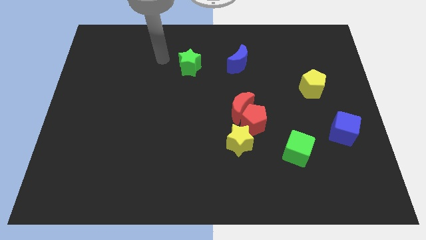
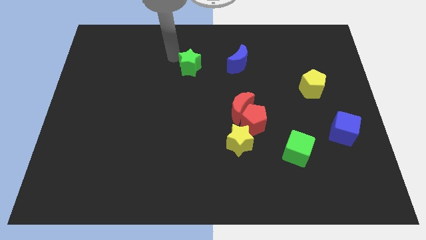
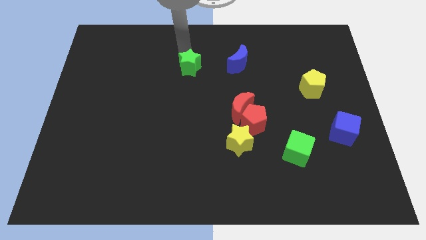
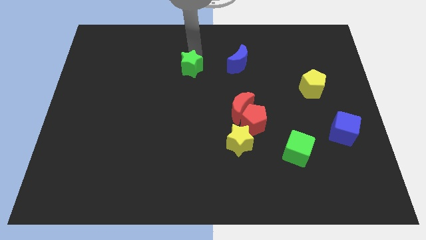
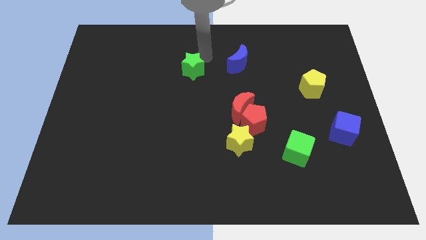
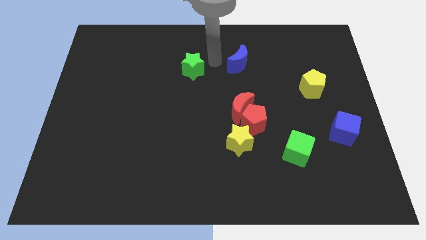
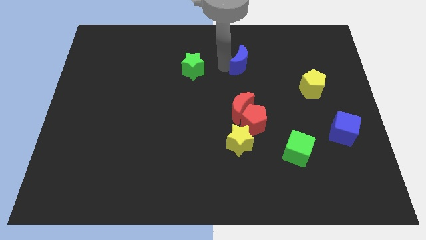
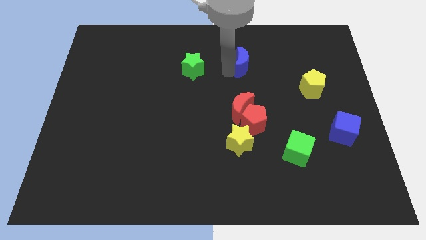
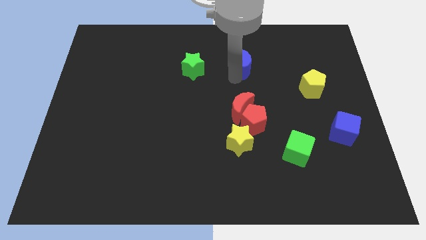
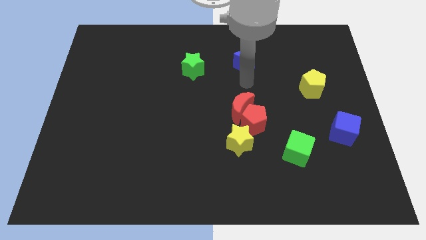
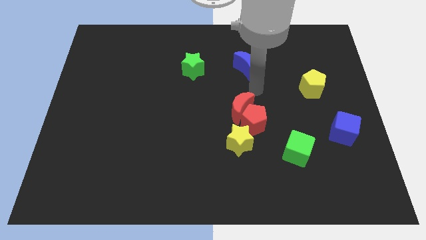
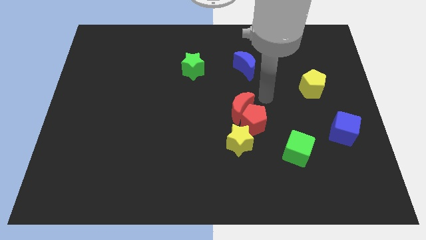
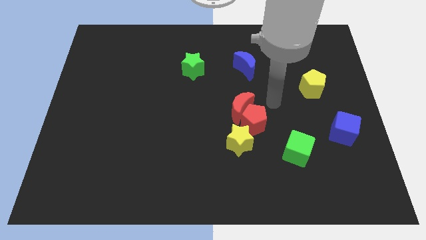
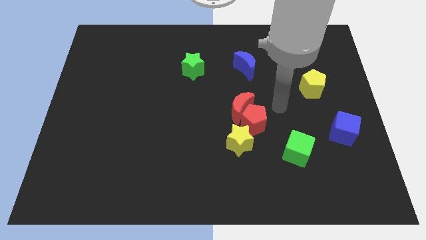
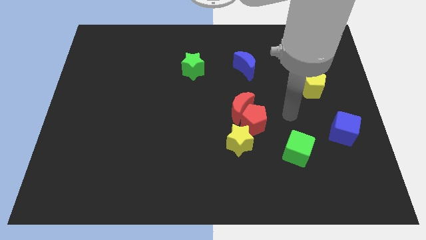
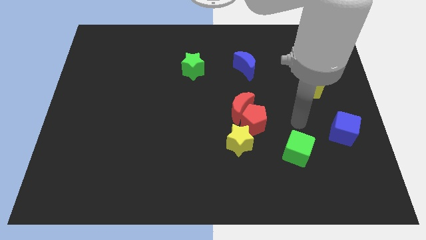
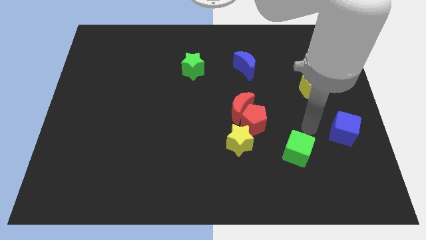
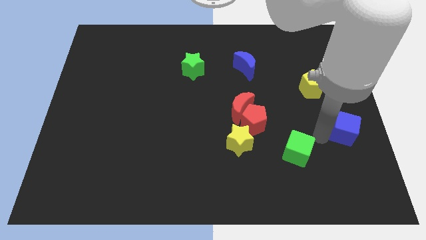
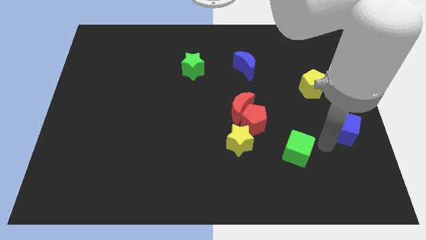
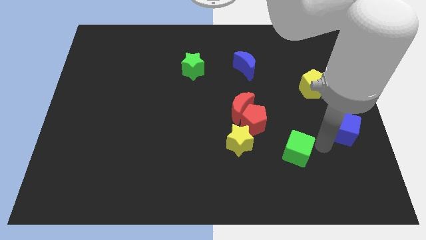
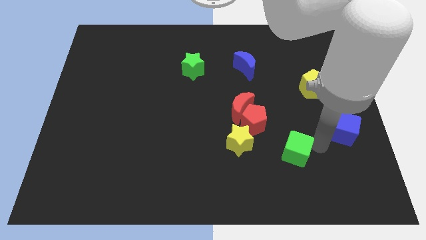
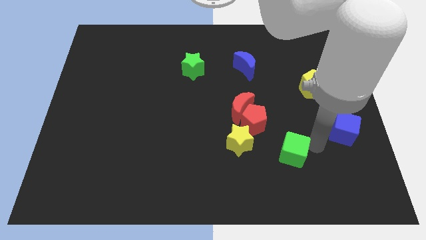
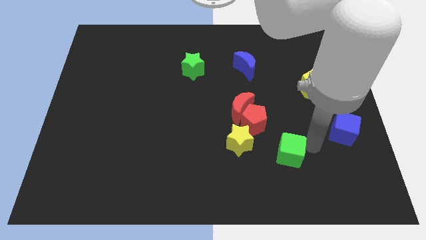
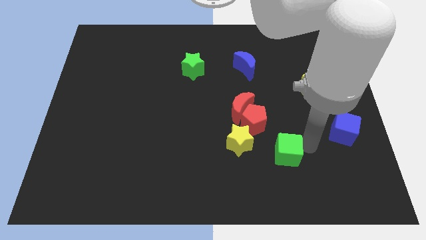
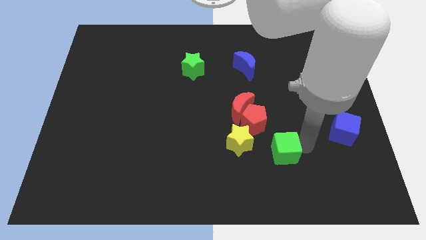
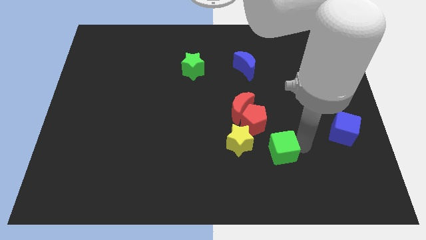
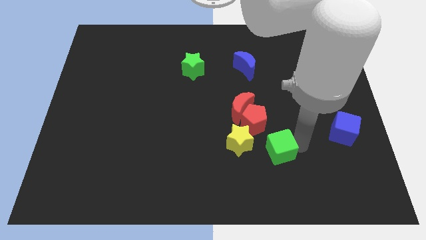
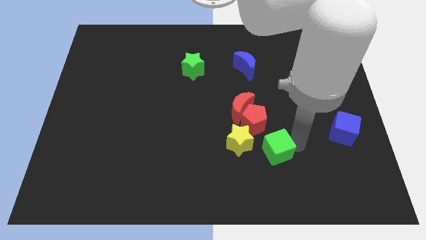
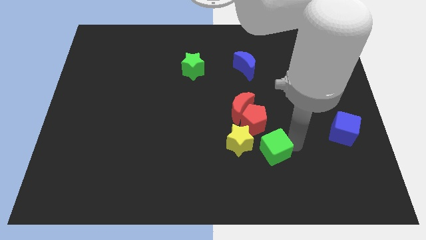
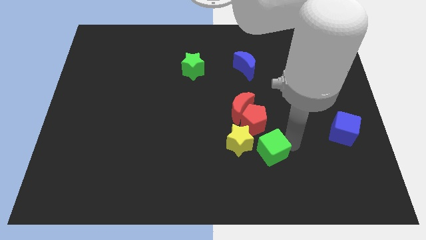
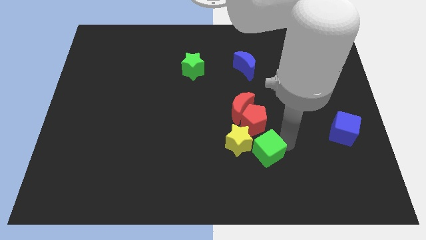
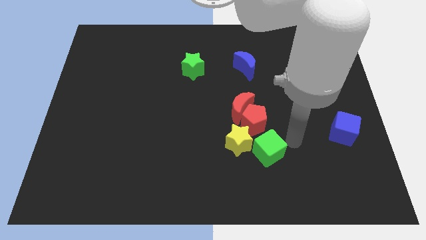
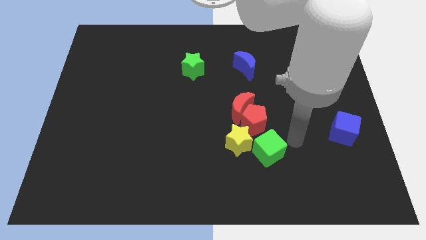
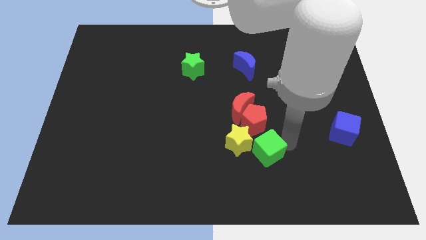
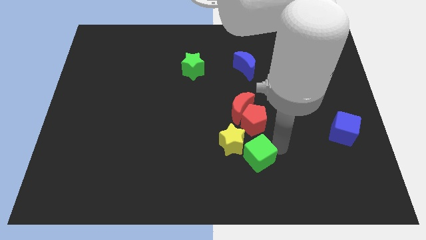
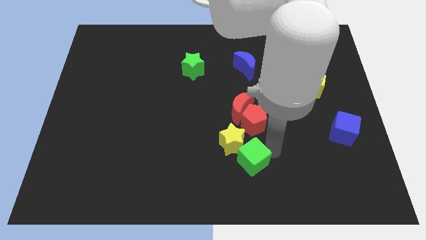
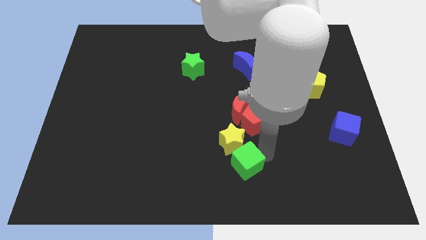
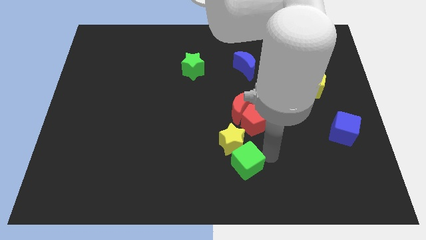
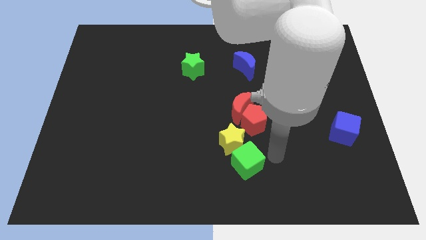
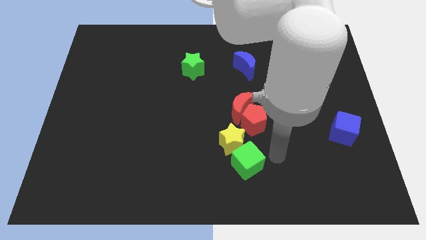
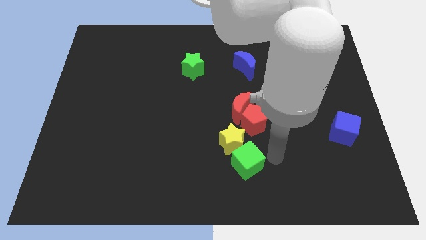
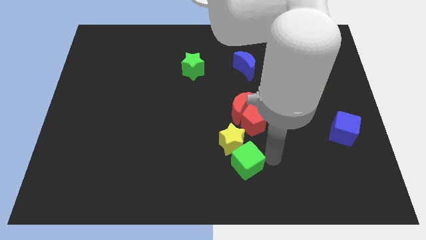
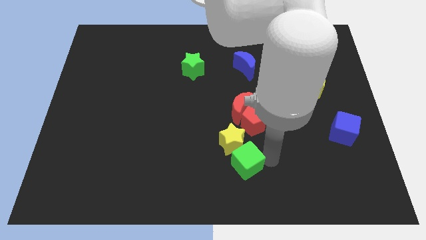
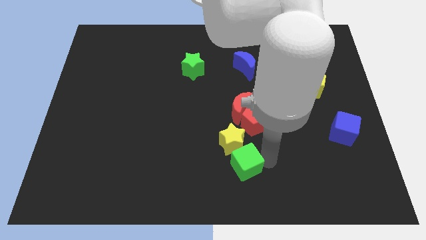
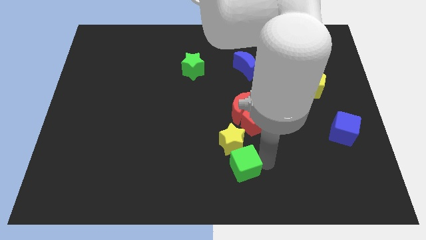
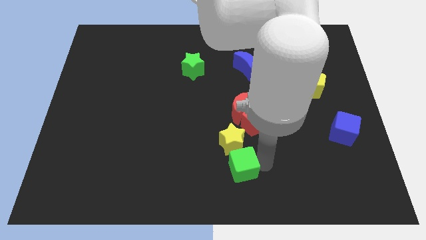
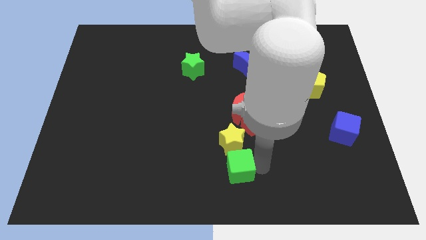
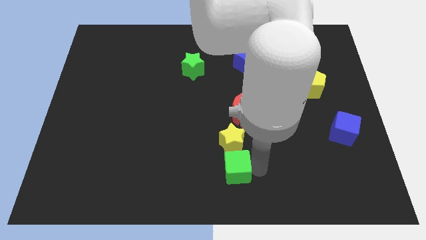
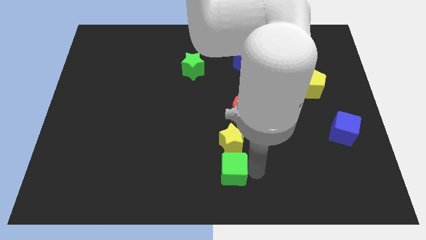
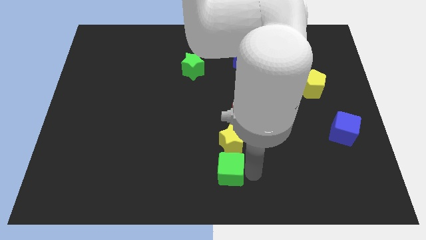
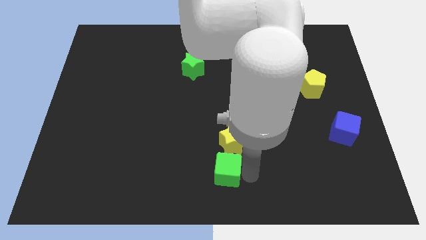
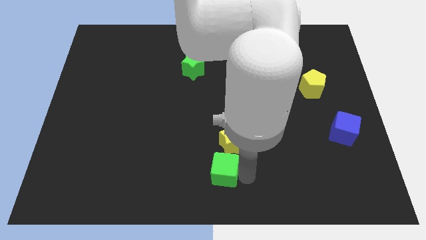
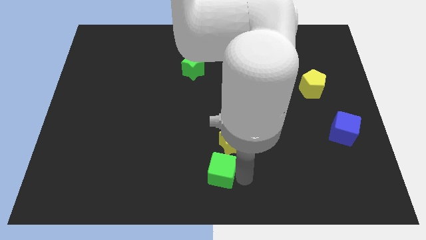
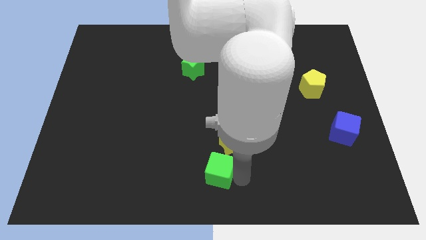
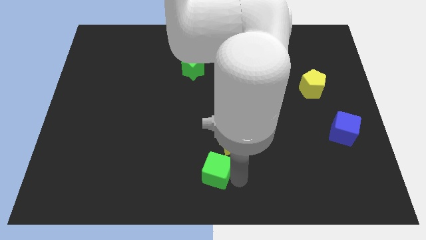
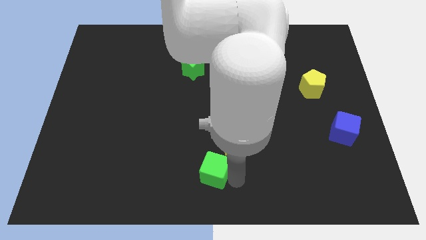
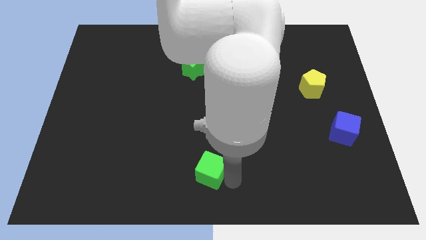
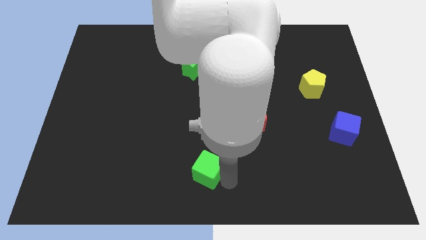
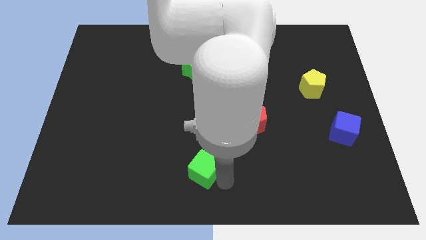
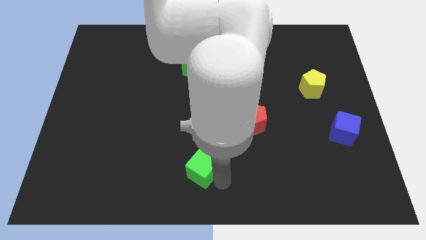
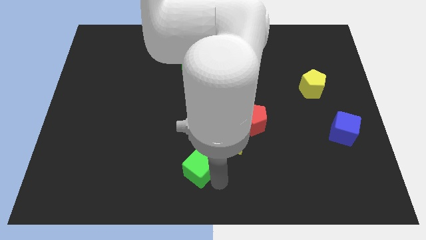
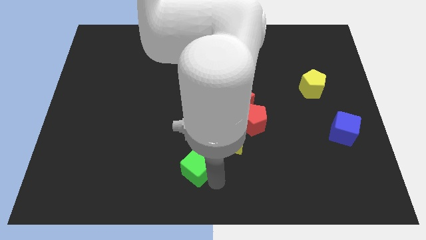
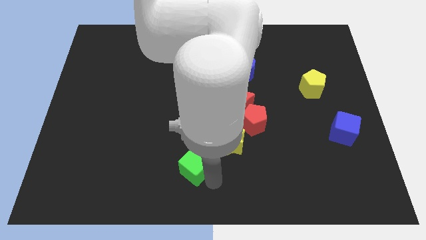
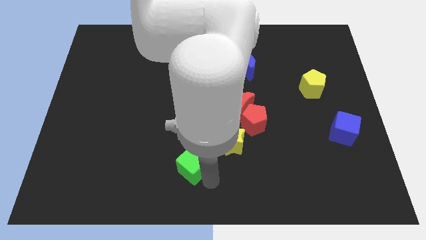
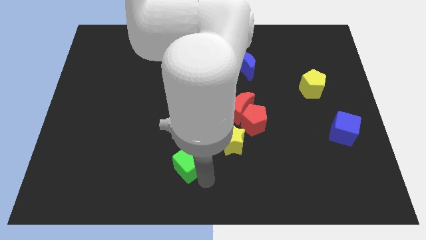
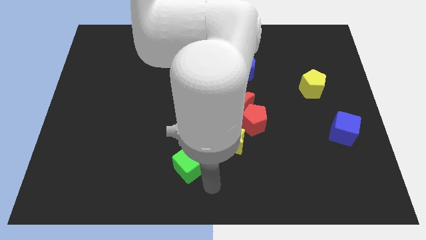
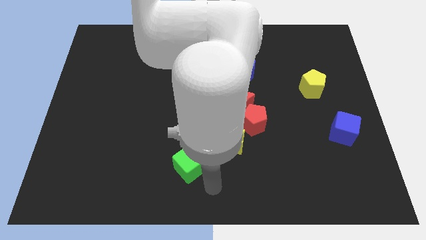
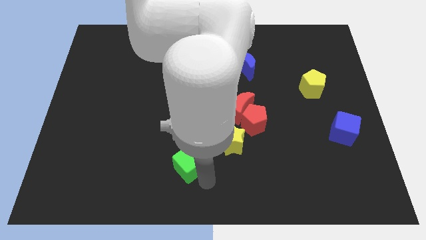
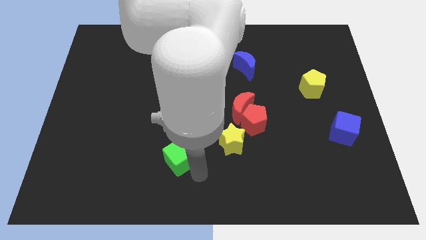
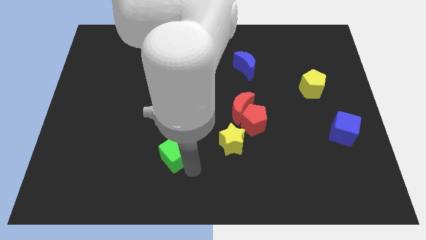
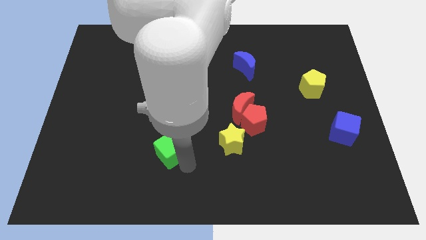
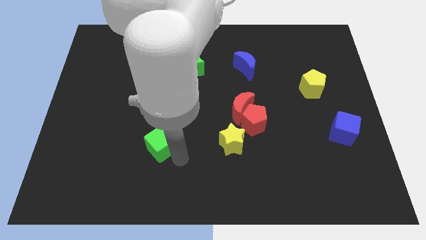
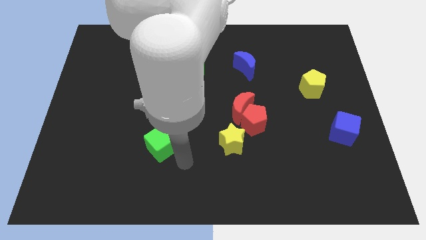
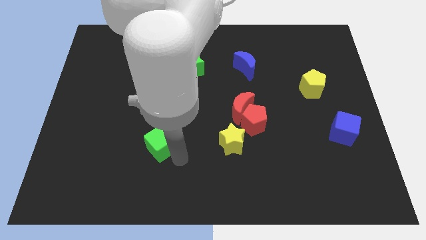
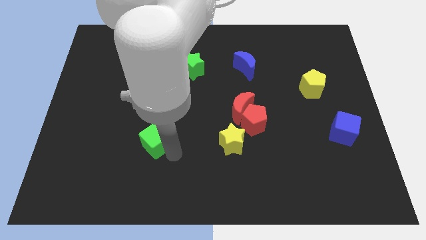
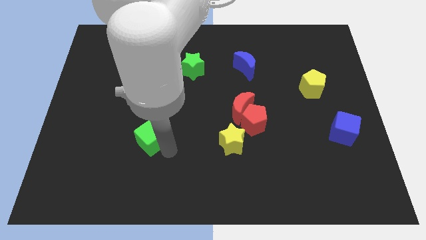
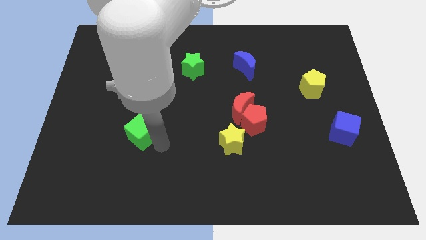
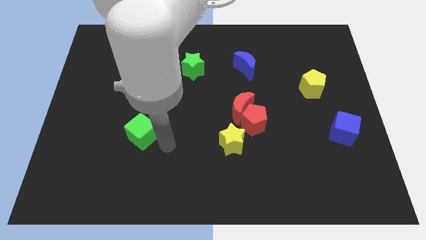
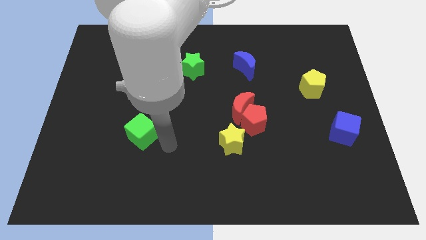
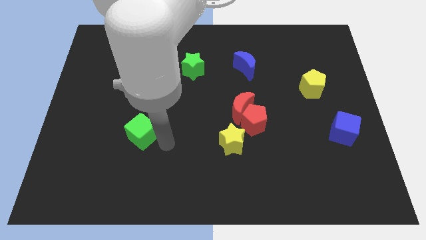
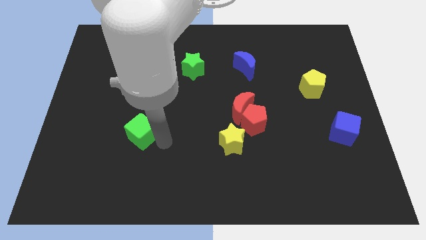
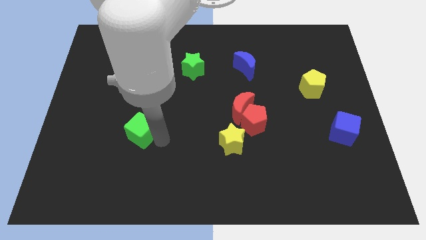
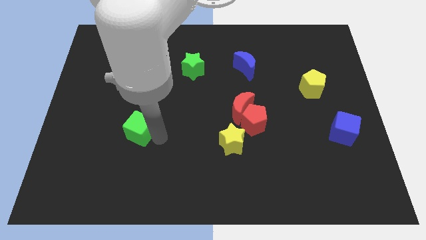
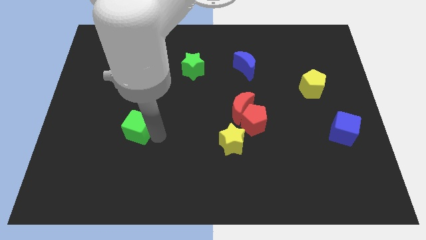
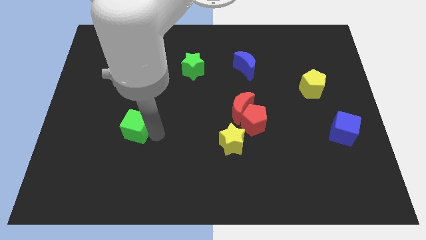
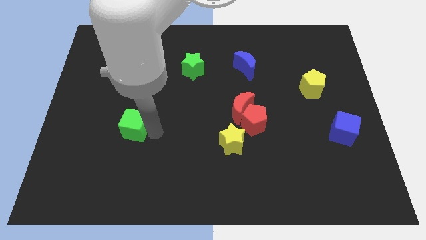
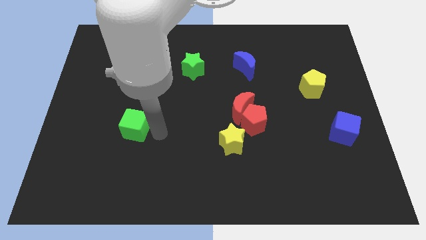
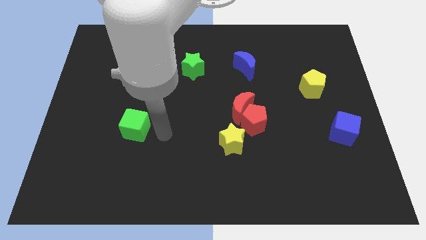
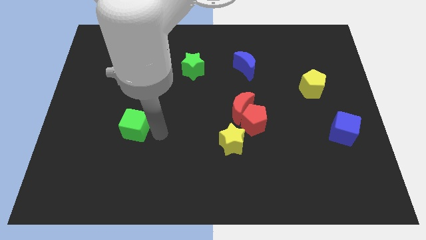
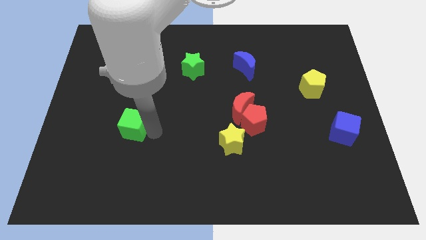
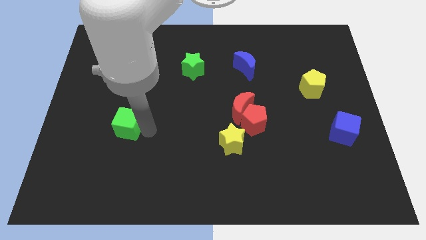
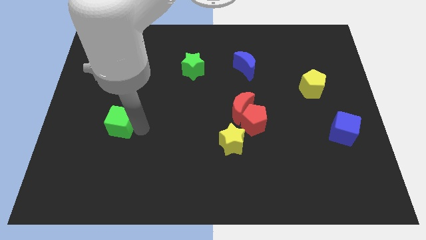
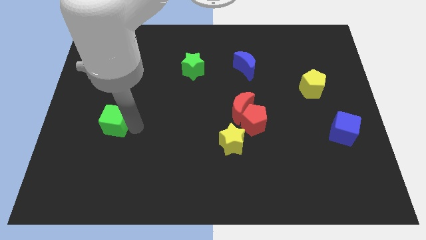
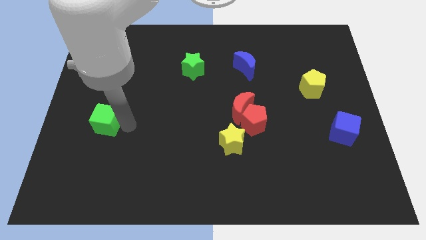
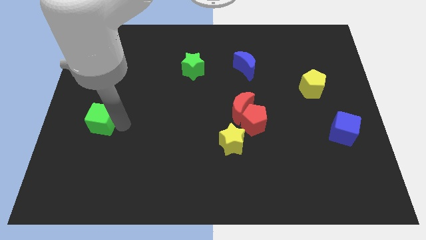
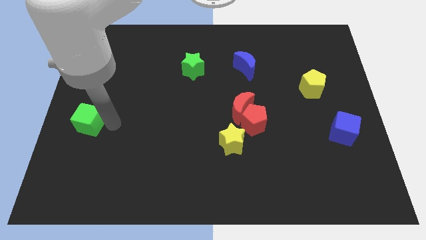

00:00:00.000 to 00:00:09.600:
slide the green cube to the center left
